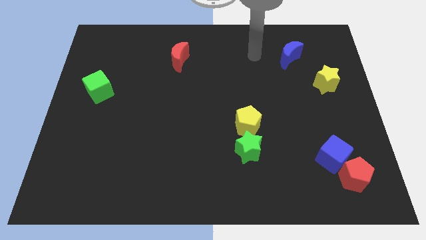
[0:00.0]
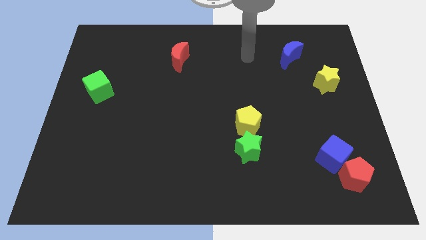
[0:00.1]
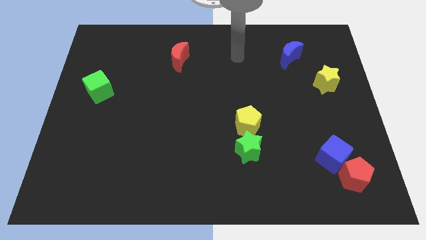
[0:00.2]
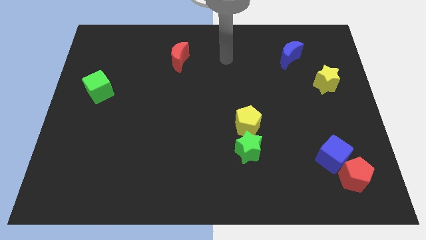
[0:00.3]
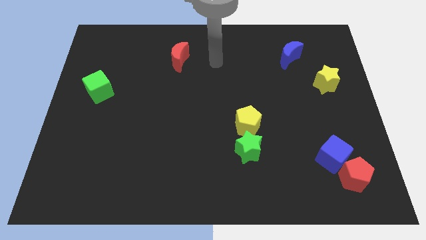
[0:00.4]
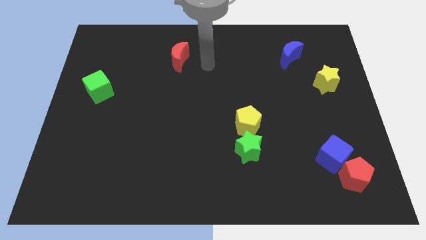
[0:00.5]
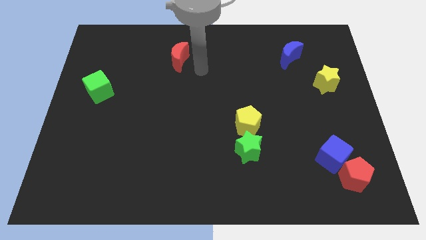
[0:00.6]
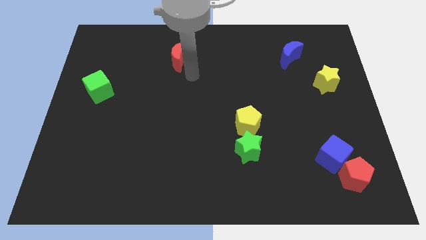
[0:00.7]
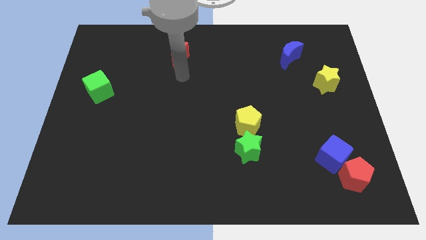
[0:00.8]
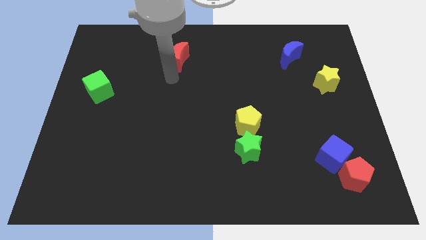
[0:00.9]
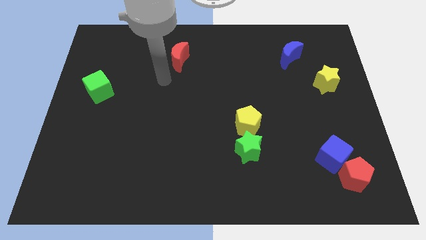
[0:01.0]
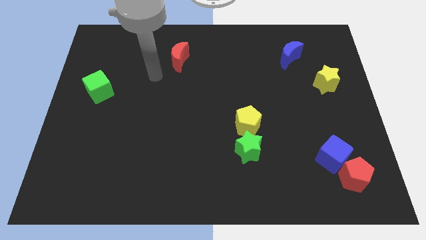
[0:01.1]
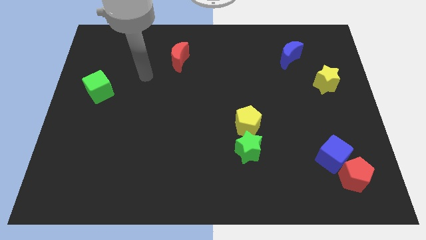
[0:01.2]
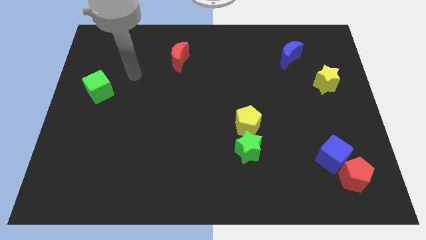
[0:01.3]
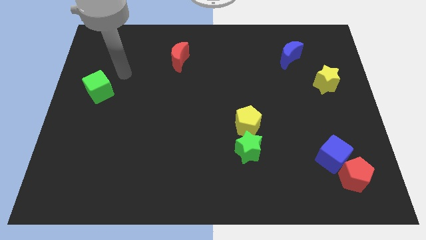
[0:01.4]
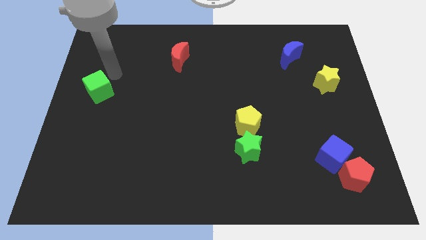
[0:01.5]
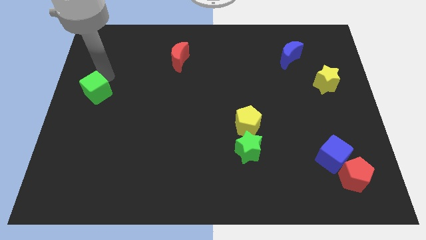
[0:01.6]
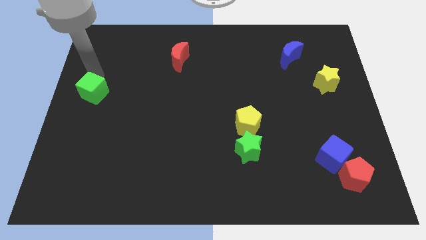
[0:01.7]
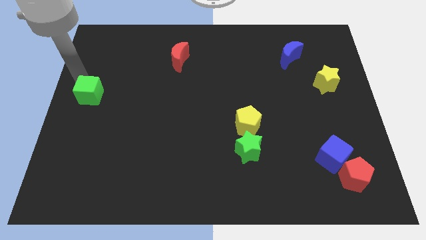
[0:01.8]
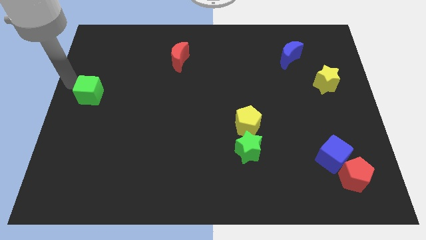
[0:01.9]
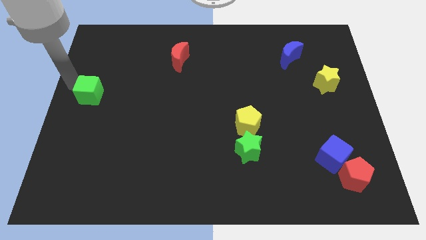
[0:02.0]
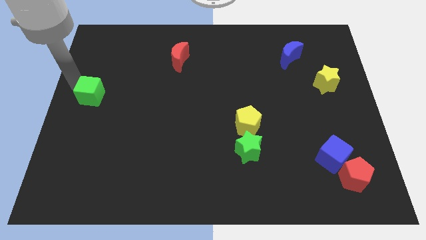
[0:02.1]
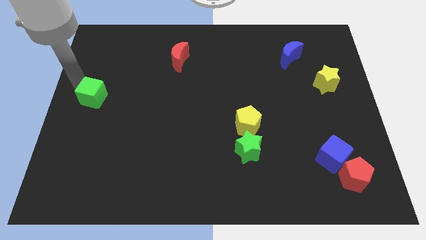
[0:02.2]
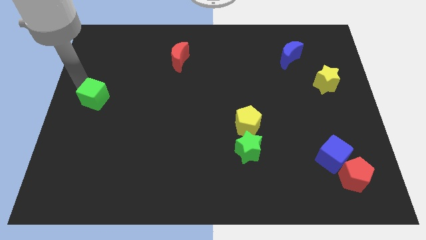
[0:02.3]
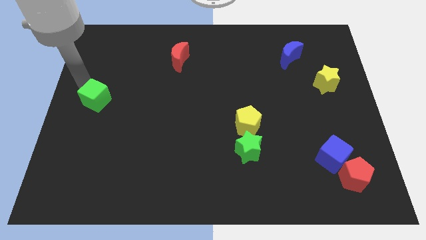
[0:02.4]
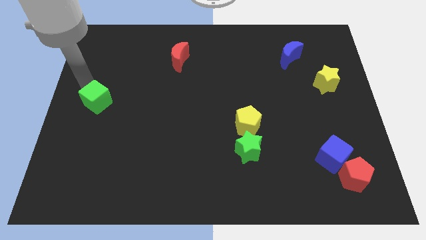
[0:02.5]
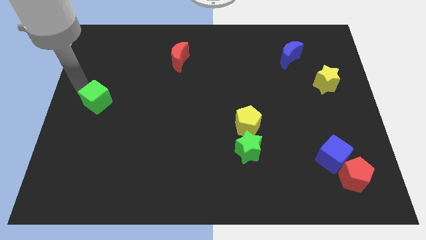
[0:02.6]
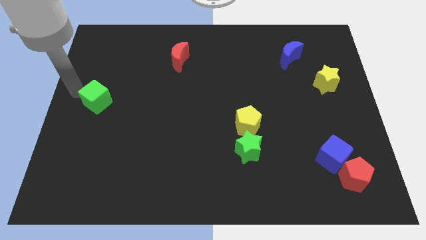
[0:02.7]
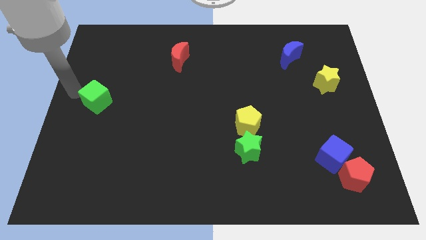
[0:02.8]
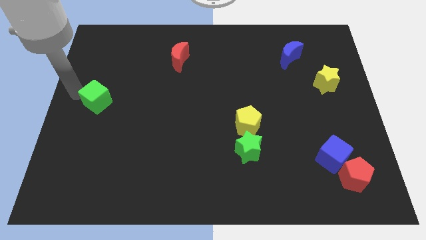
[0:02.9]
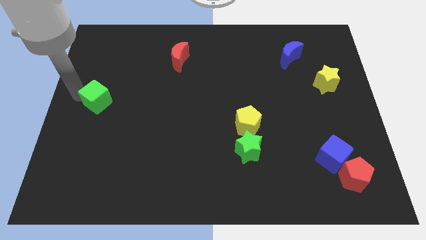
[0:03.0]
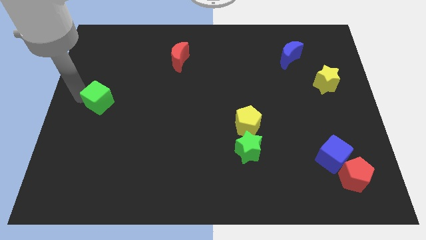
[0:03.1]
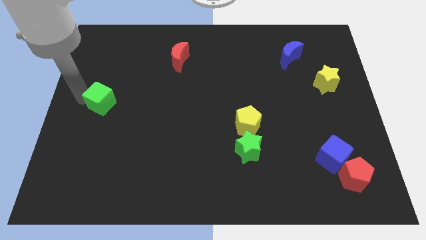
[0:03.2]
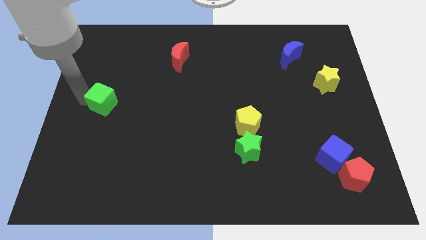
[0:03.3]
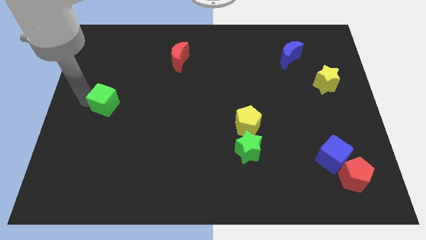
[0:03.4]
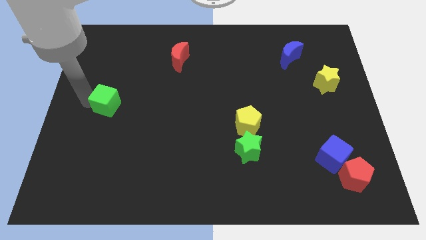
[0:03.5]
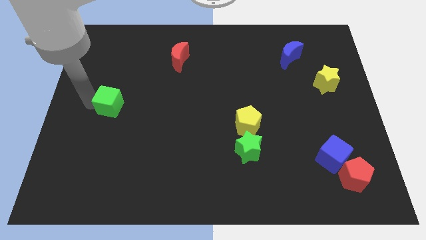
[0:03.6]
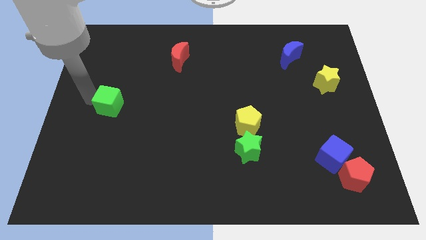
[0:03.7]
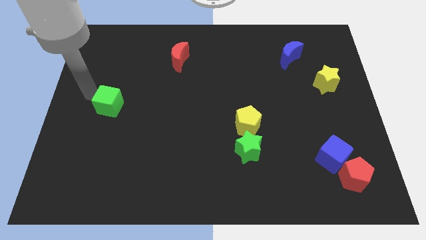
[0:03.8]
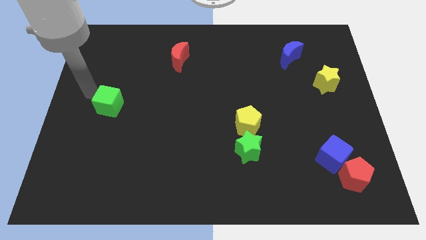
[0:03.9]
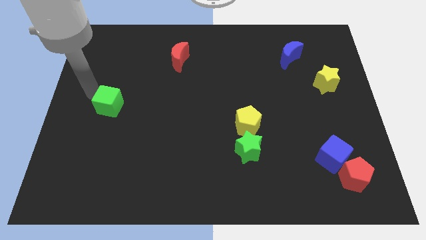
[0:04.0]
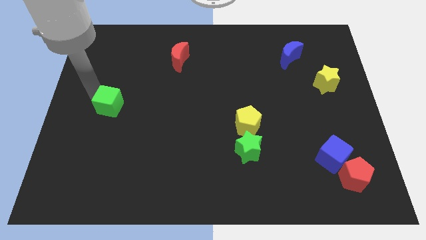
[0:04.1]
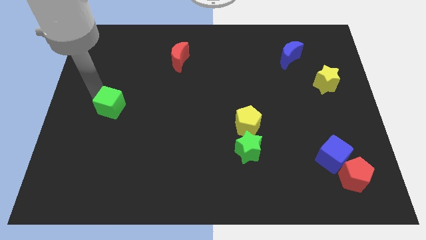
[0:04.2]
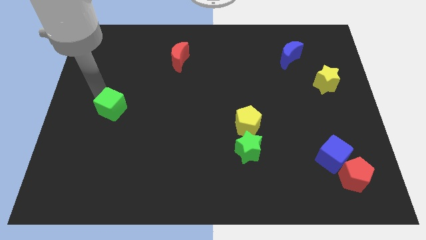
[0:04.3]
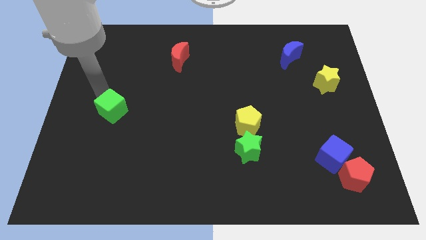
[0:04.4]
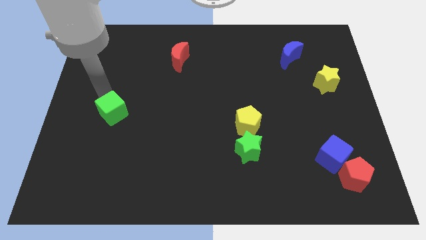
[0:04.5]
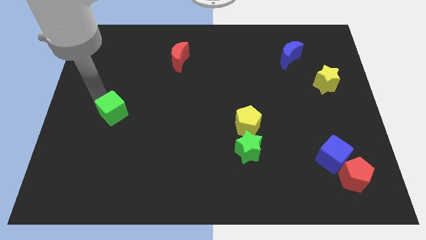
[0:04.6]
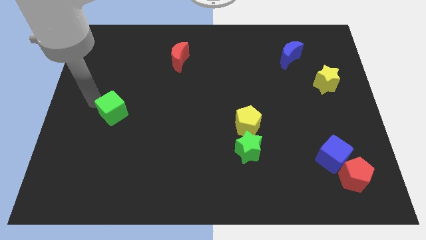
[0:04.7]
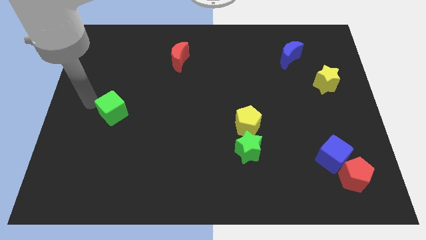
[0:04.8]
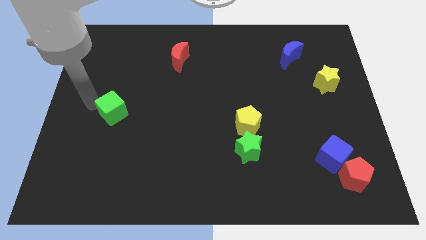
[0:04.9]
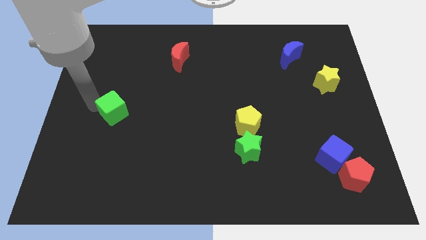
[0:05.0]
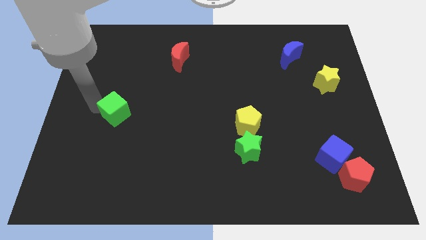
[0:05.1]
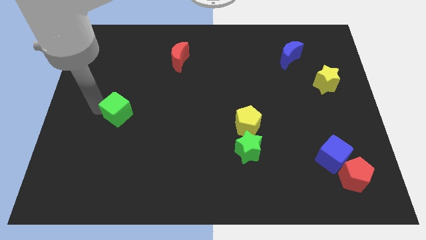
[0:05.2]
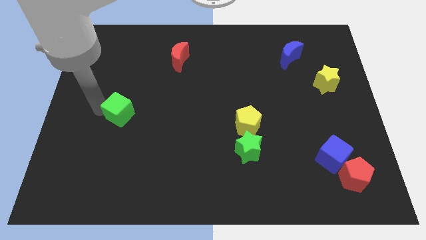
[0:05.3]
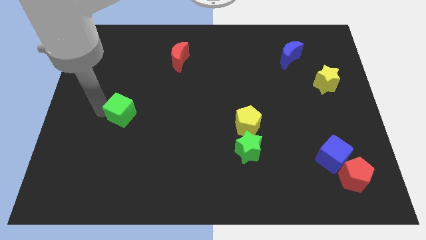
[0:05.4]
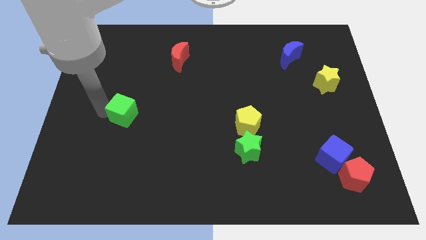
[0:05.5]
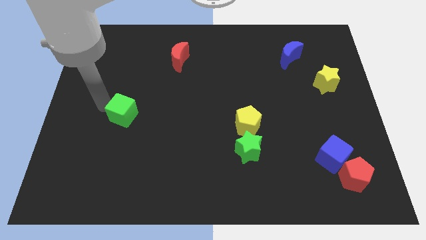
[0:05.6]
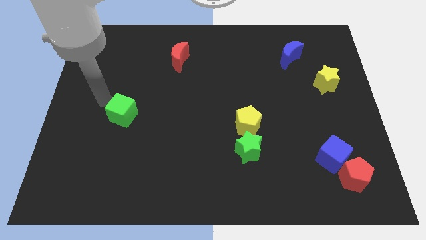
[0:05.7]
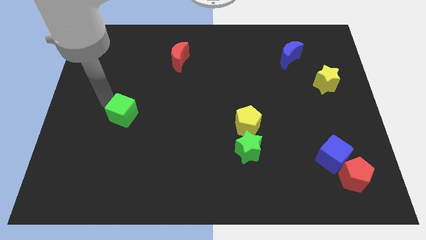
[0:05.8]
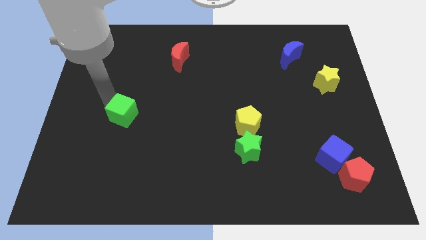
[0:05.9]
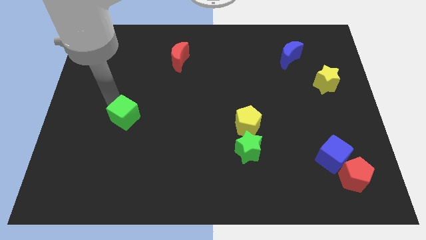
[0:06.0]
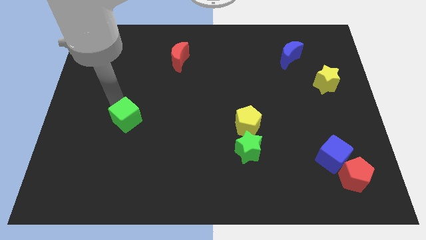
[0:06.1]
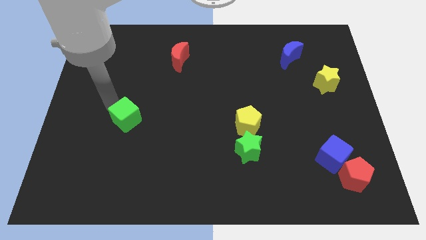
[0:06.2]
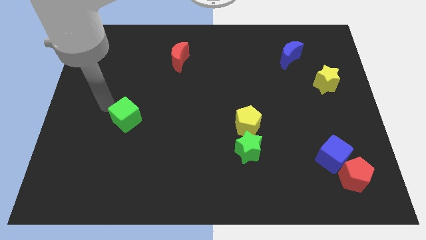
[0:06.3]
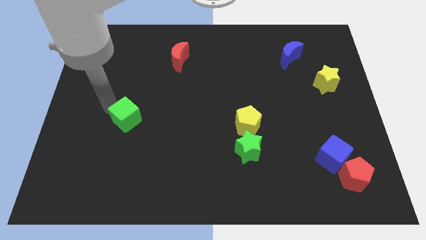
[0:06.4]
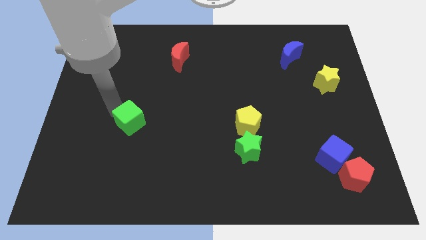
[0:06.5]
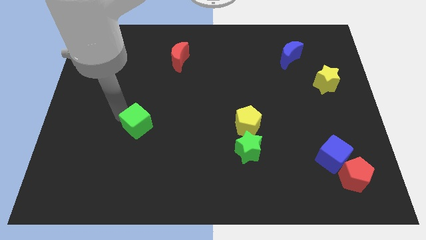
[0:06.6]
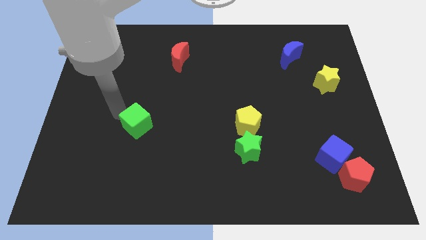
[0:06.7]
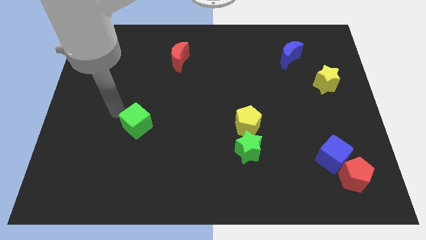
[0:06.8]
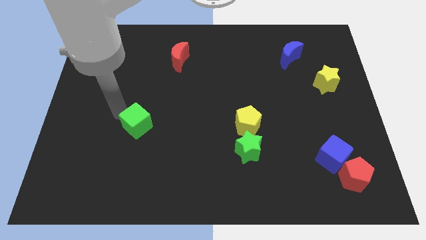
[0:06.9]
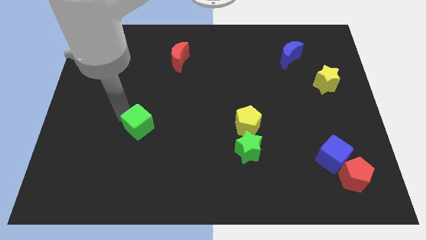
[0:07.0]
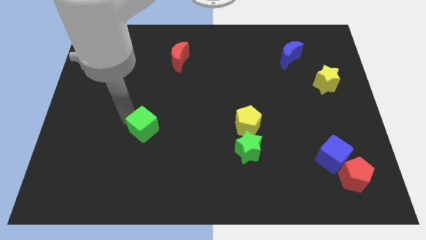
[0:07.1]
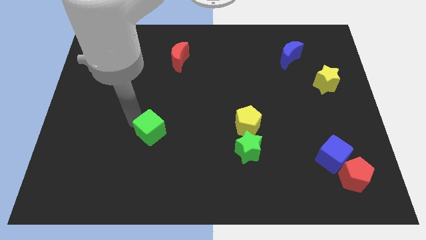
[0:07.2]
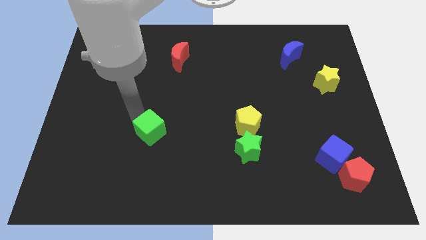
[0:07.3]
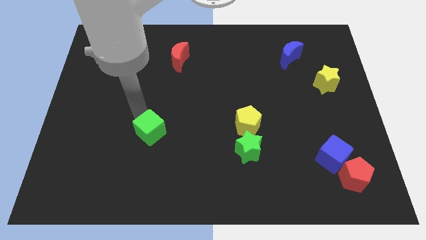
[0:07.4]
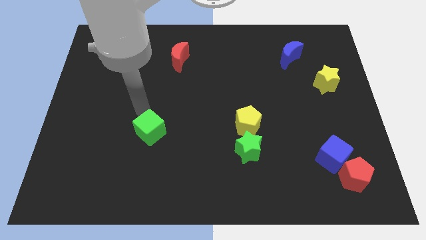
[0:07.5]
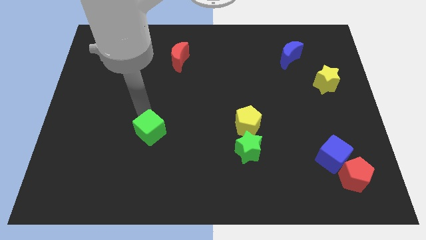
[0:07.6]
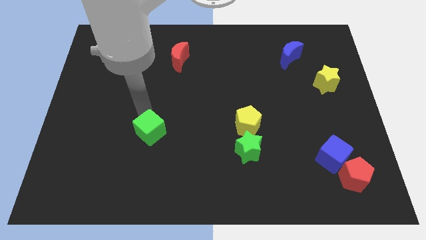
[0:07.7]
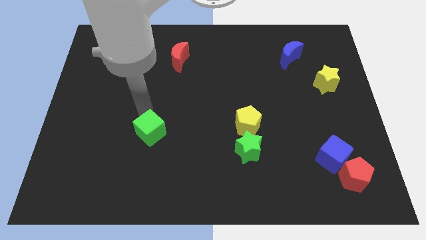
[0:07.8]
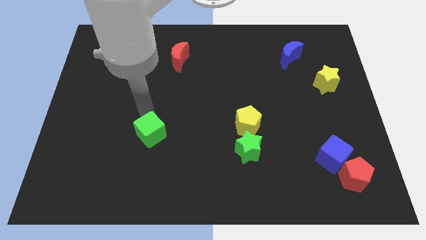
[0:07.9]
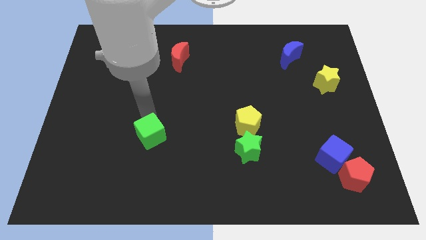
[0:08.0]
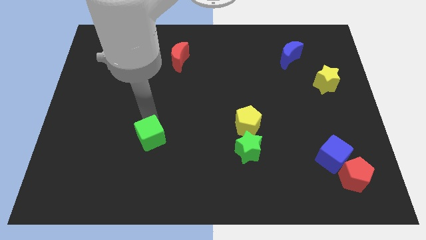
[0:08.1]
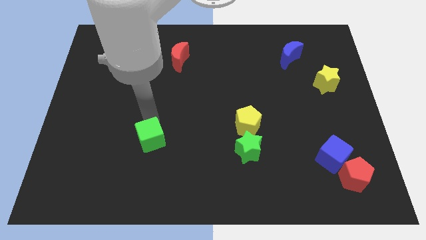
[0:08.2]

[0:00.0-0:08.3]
move the green cube down and then to the right
